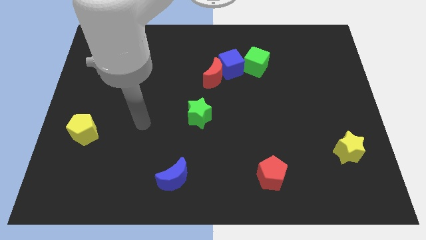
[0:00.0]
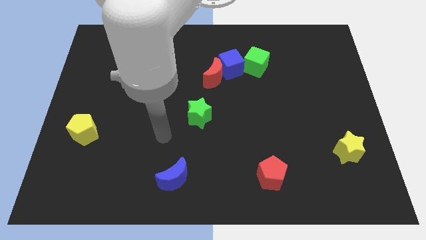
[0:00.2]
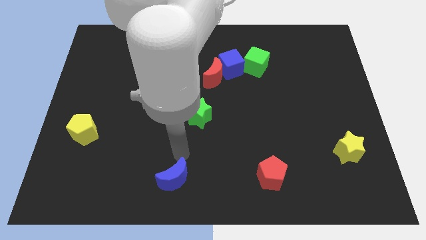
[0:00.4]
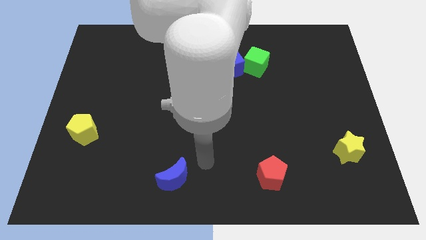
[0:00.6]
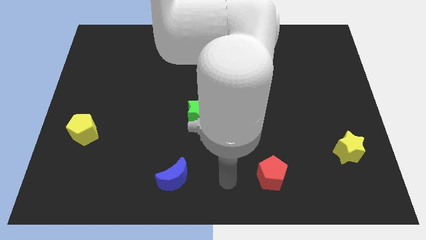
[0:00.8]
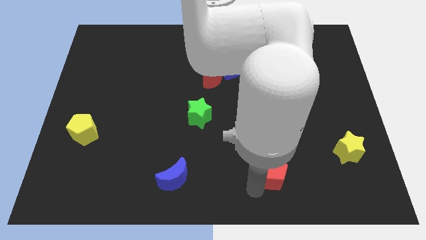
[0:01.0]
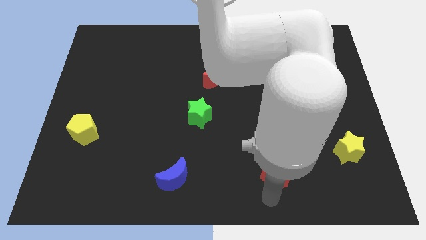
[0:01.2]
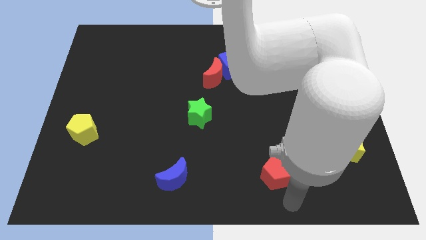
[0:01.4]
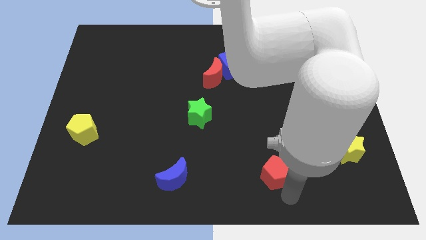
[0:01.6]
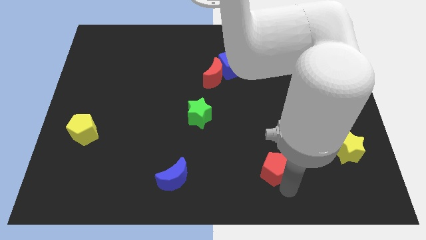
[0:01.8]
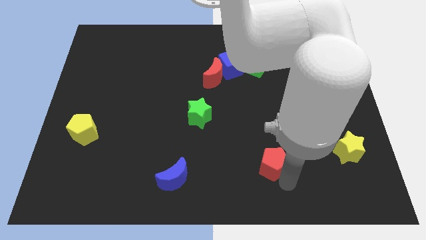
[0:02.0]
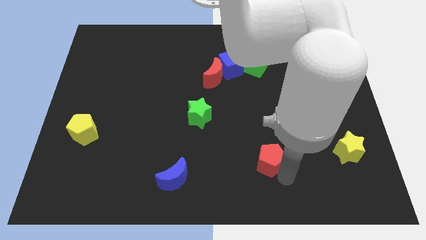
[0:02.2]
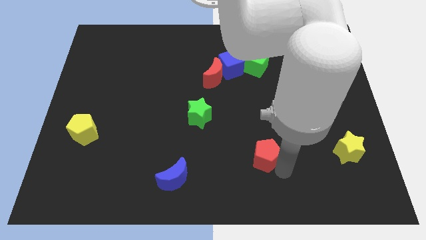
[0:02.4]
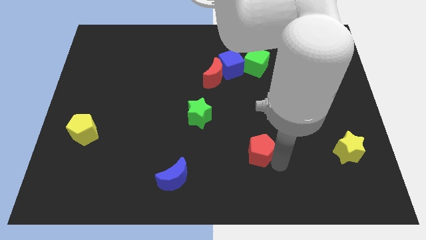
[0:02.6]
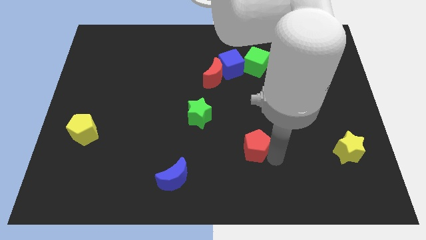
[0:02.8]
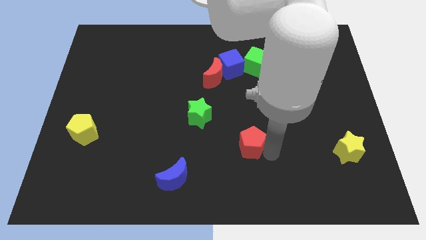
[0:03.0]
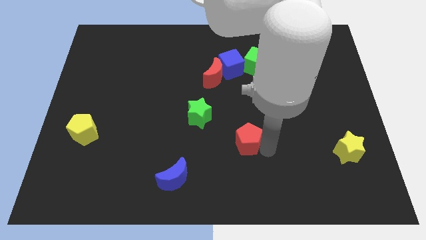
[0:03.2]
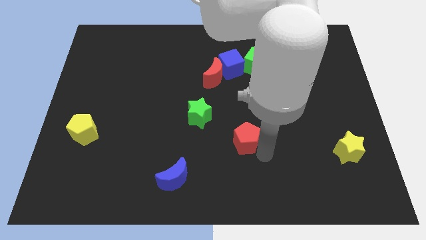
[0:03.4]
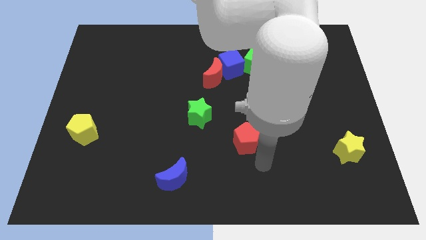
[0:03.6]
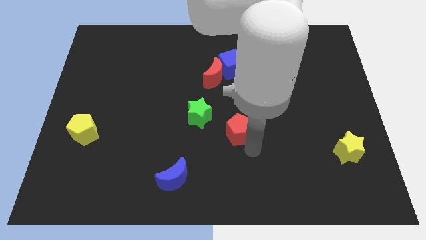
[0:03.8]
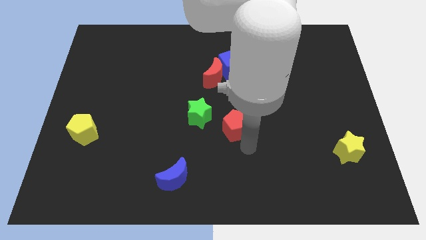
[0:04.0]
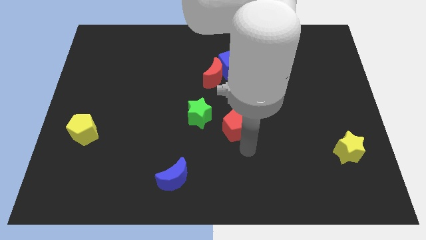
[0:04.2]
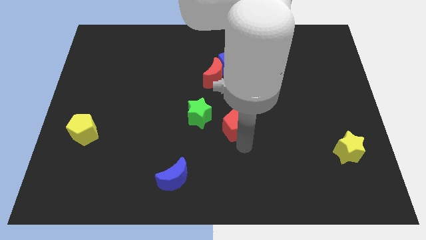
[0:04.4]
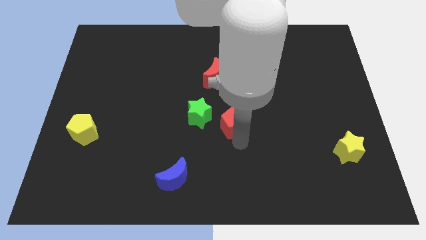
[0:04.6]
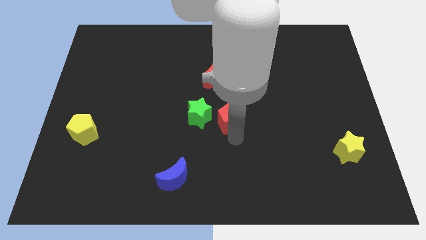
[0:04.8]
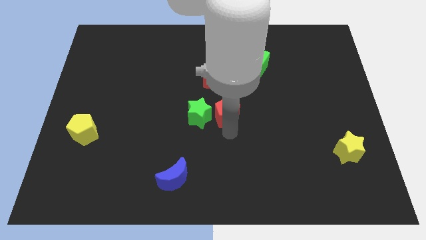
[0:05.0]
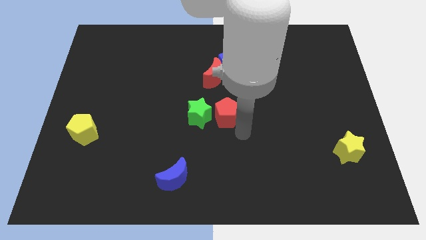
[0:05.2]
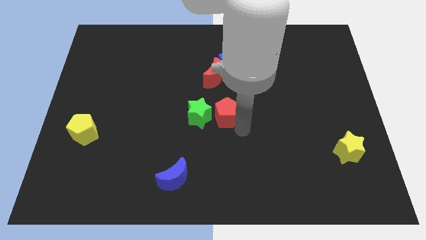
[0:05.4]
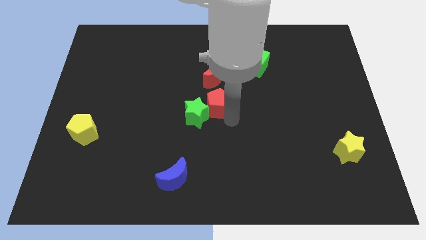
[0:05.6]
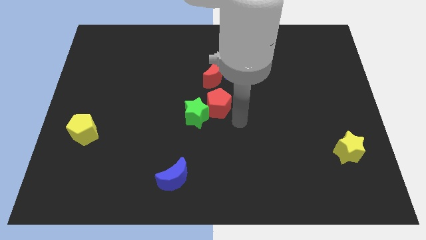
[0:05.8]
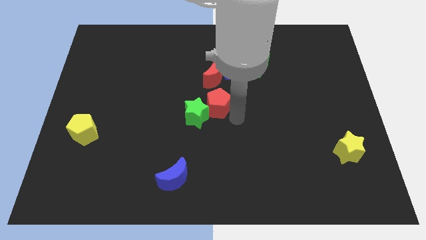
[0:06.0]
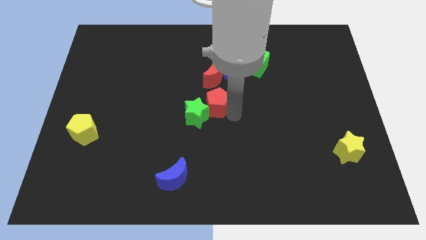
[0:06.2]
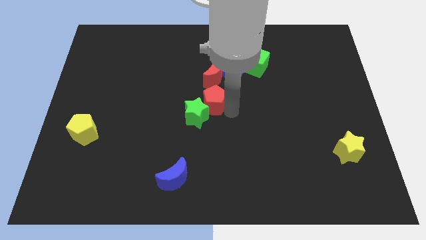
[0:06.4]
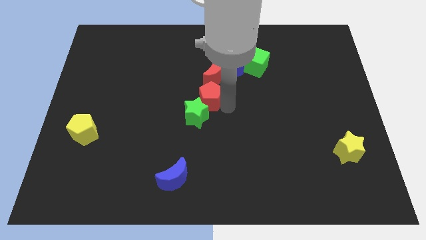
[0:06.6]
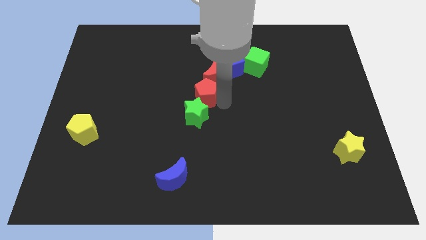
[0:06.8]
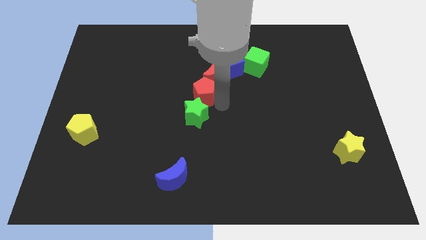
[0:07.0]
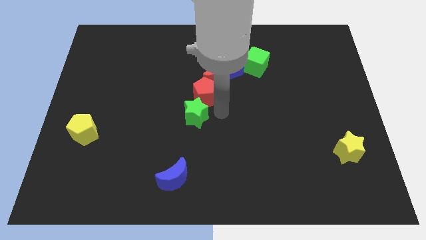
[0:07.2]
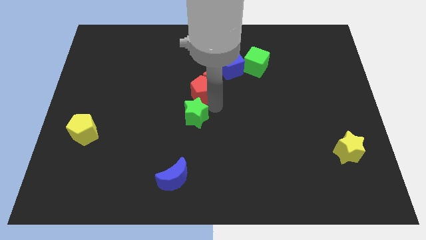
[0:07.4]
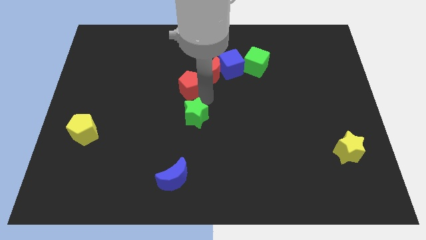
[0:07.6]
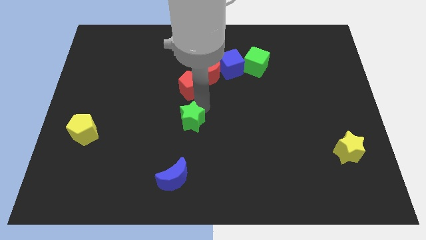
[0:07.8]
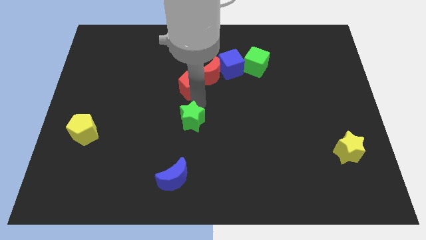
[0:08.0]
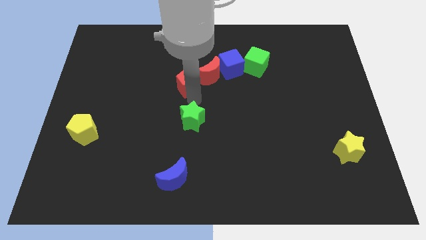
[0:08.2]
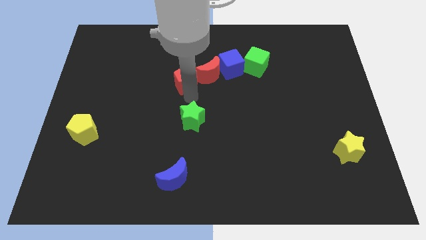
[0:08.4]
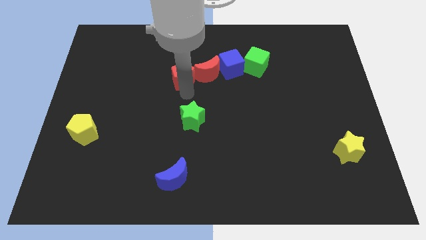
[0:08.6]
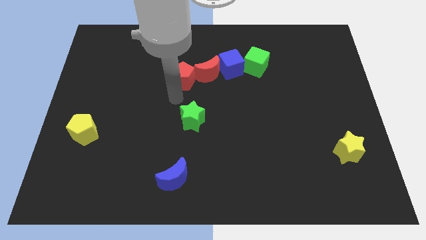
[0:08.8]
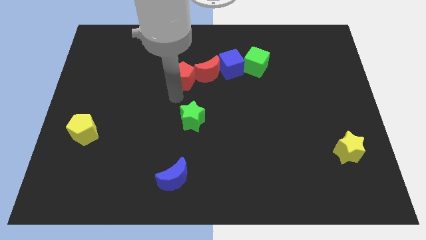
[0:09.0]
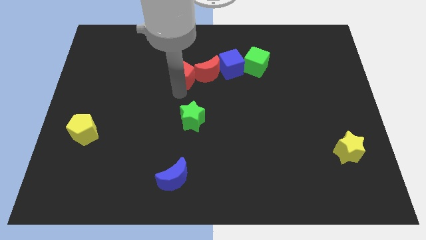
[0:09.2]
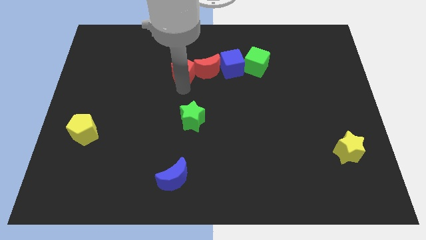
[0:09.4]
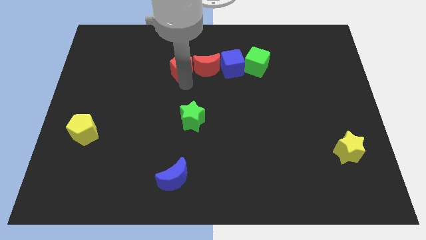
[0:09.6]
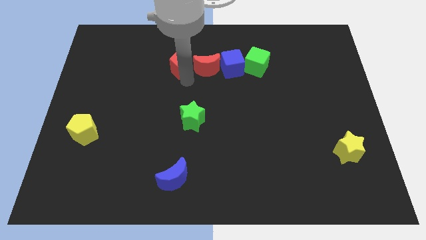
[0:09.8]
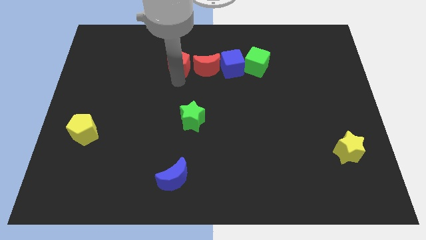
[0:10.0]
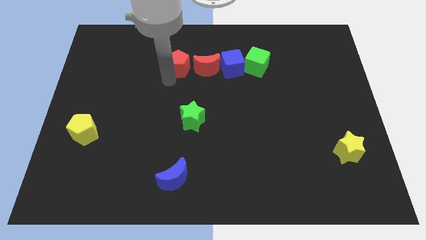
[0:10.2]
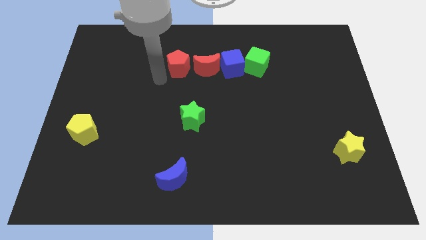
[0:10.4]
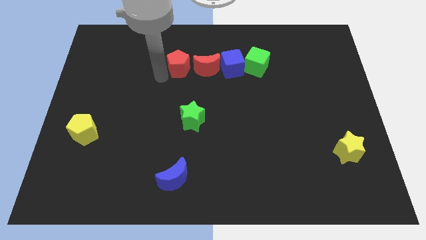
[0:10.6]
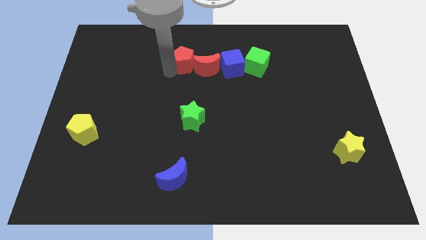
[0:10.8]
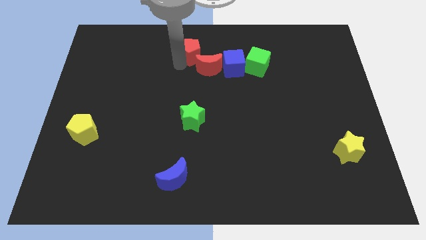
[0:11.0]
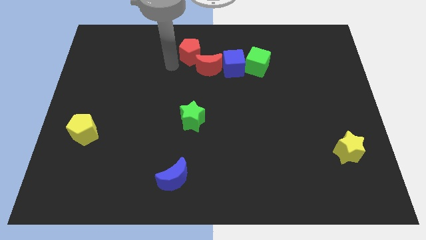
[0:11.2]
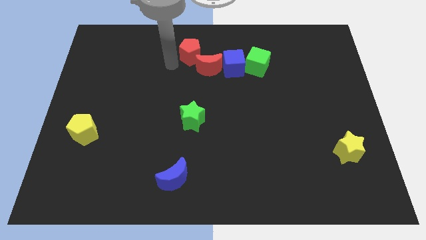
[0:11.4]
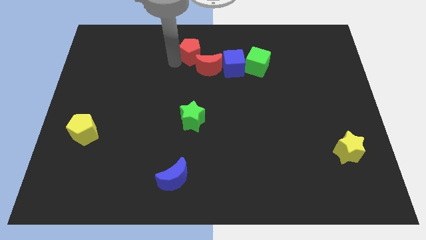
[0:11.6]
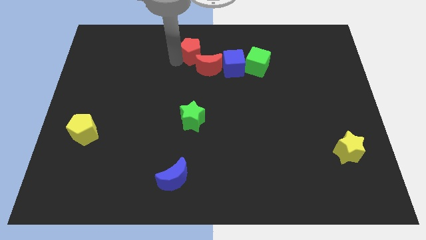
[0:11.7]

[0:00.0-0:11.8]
slide the red pentagon to the towards your base

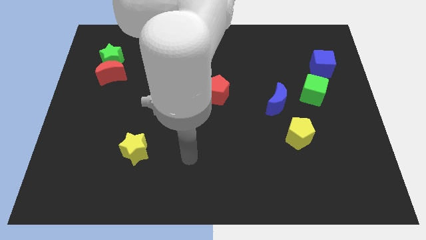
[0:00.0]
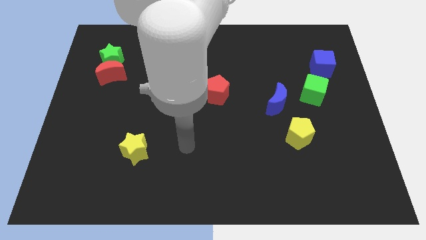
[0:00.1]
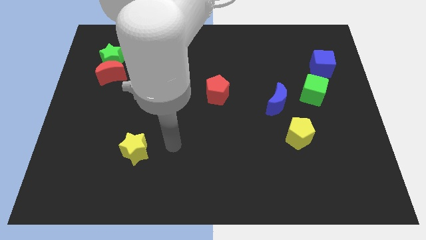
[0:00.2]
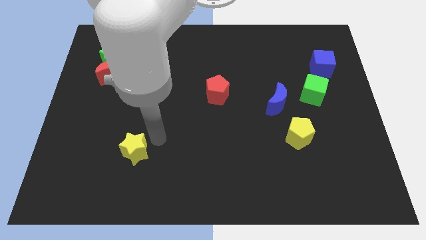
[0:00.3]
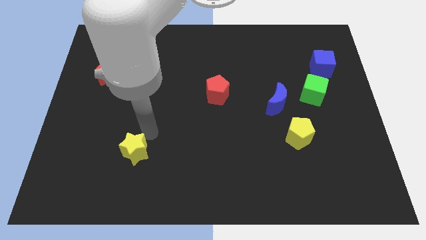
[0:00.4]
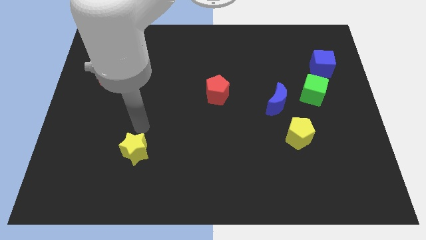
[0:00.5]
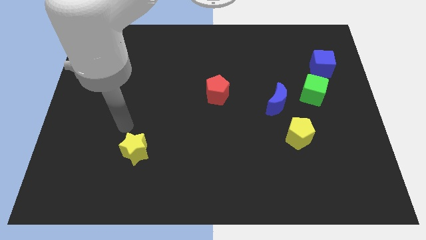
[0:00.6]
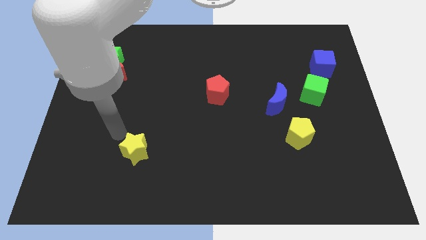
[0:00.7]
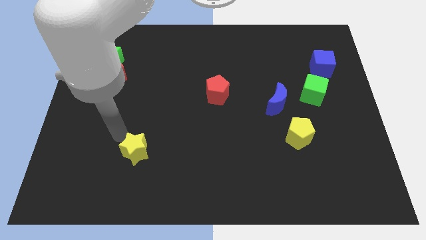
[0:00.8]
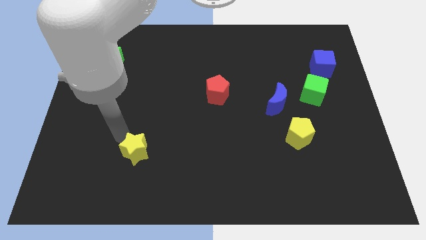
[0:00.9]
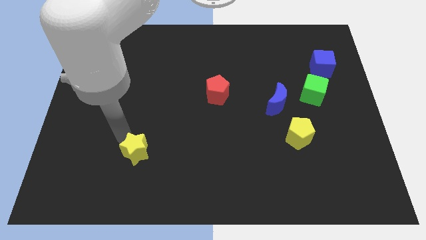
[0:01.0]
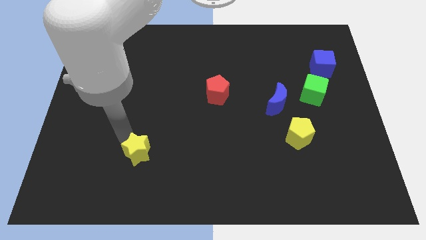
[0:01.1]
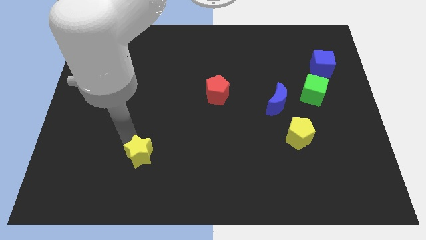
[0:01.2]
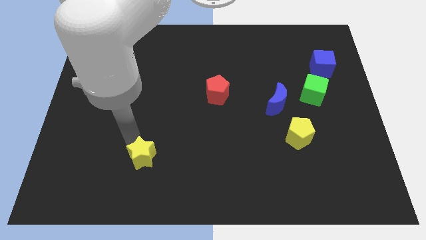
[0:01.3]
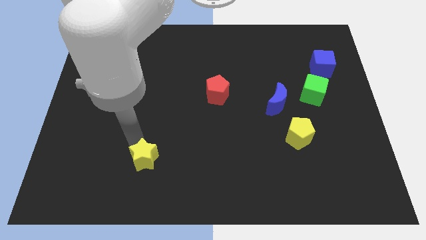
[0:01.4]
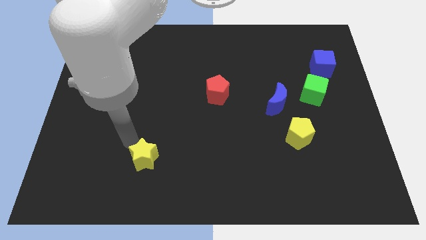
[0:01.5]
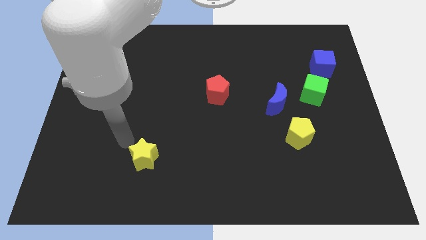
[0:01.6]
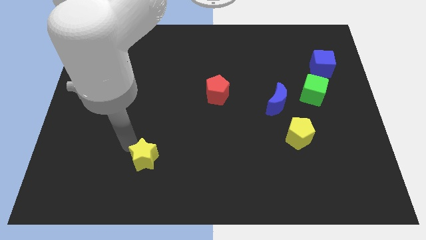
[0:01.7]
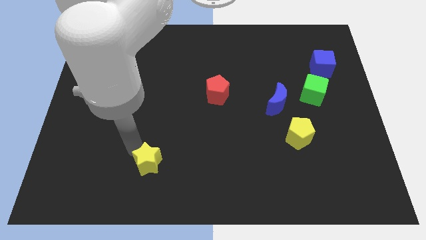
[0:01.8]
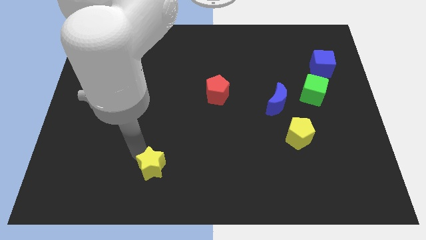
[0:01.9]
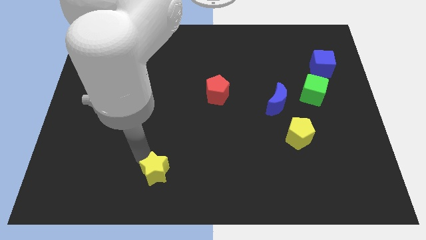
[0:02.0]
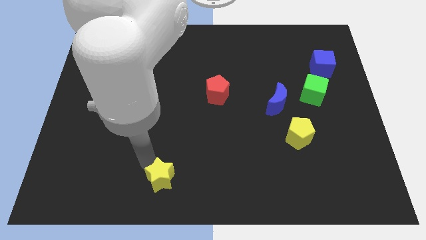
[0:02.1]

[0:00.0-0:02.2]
push the yellow star to the bottom
